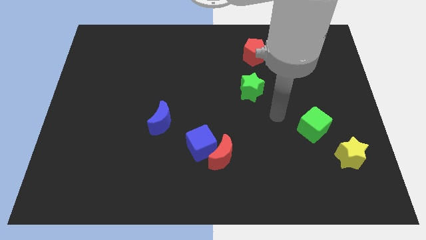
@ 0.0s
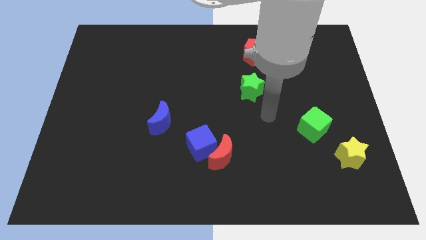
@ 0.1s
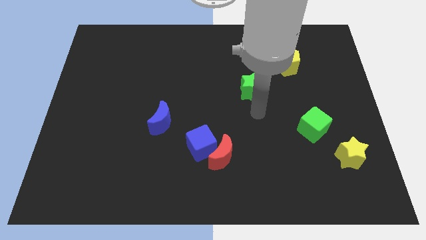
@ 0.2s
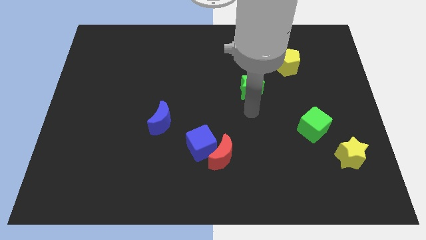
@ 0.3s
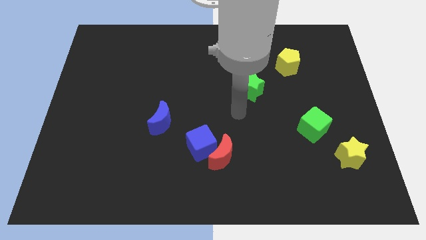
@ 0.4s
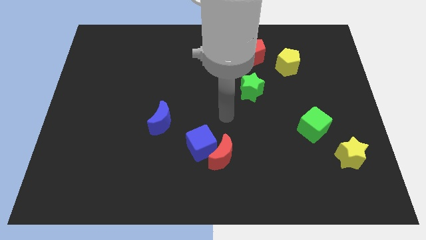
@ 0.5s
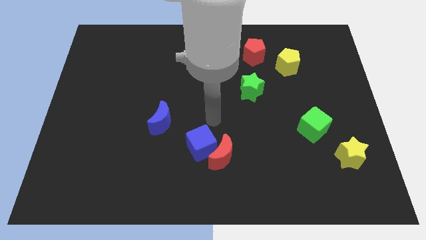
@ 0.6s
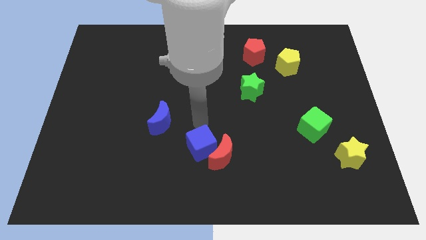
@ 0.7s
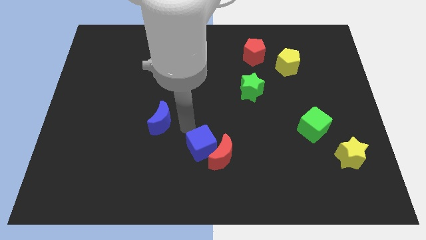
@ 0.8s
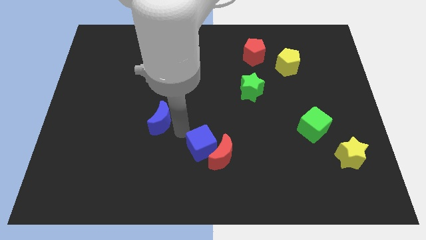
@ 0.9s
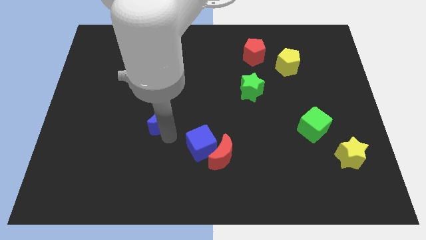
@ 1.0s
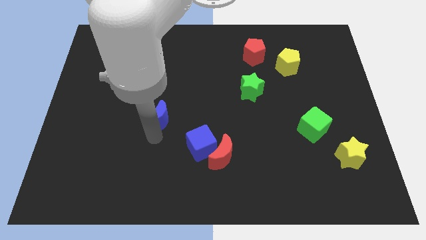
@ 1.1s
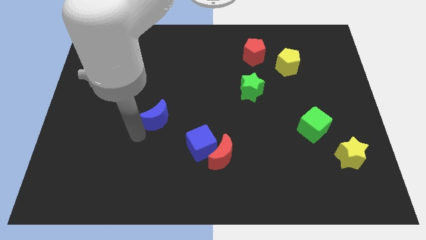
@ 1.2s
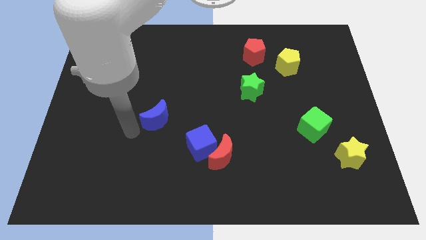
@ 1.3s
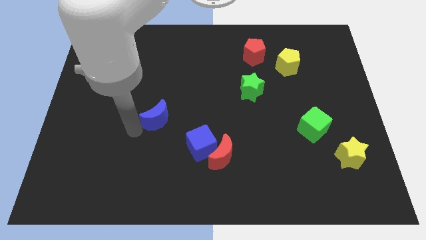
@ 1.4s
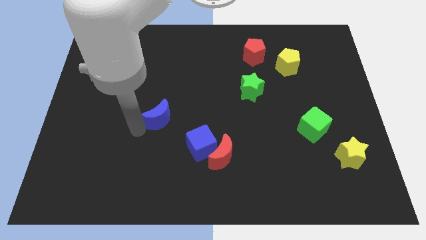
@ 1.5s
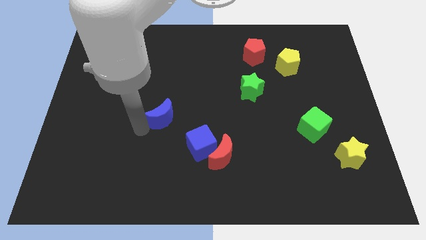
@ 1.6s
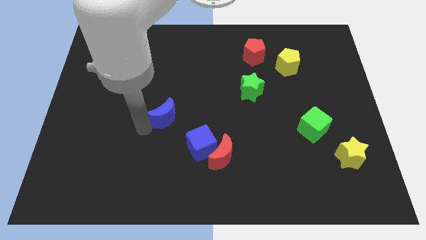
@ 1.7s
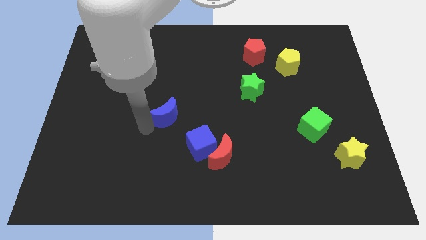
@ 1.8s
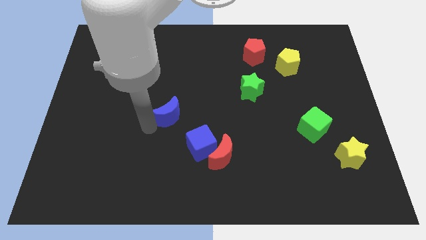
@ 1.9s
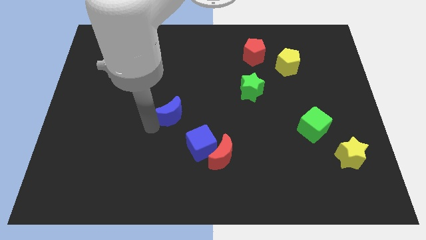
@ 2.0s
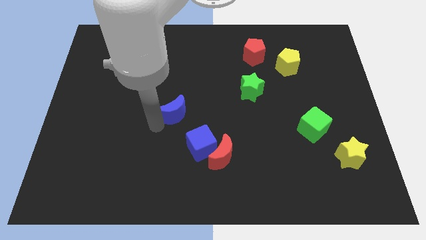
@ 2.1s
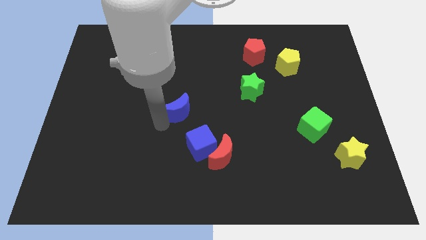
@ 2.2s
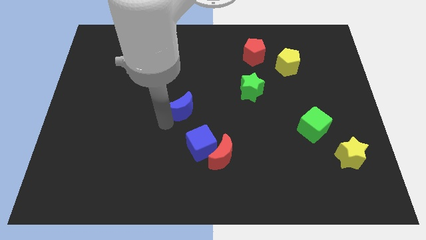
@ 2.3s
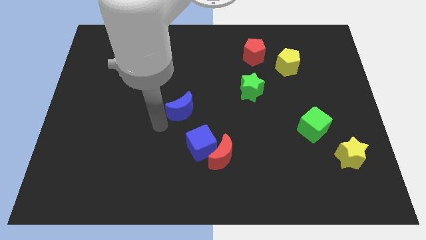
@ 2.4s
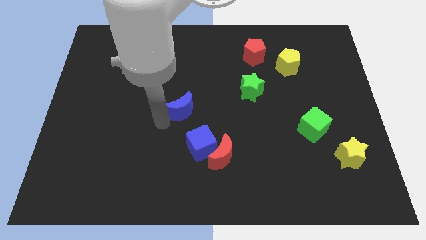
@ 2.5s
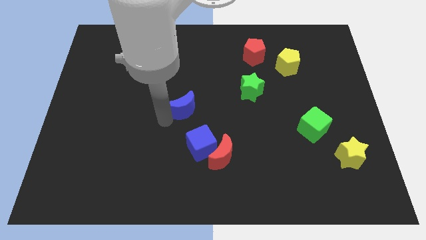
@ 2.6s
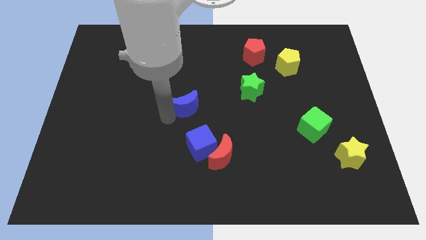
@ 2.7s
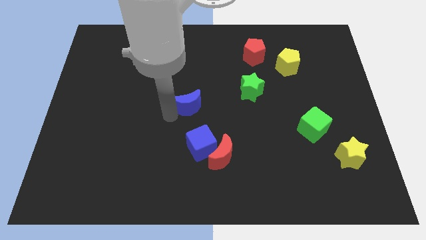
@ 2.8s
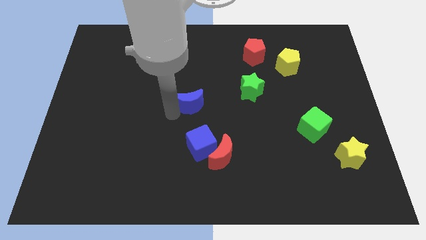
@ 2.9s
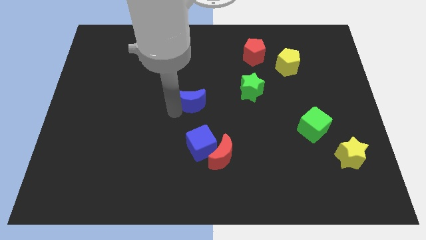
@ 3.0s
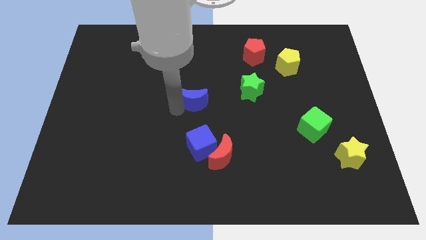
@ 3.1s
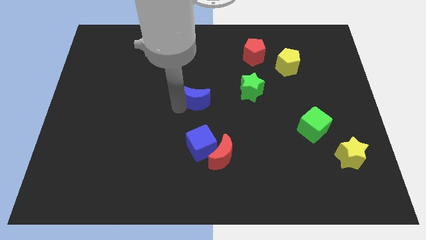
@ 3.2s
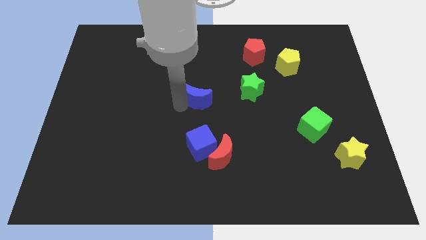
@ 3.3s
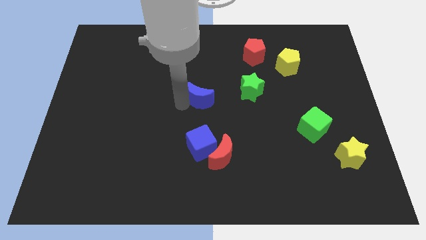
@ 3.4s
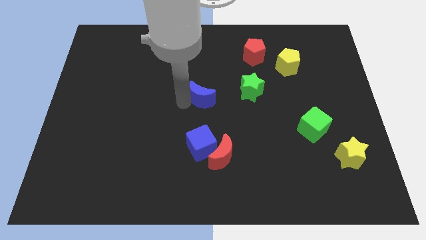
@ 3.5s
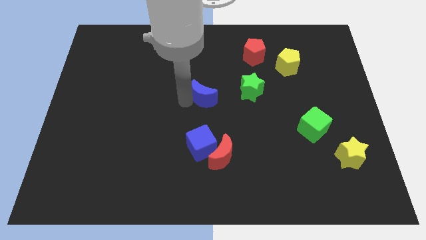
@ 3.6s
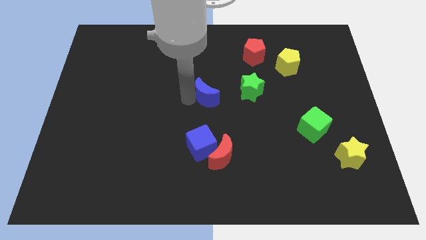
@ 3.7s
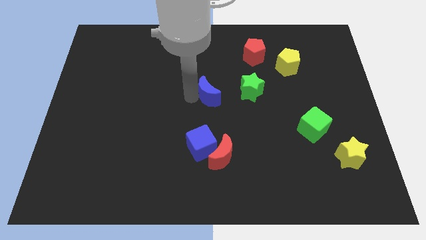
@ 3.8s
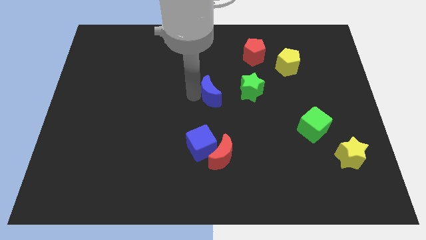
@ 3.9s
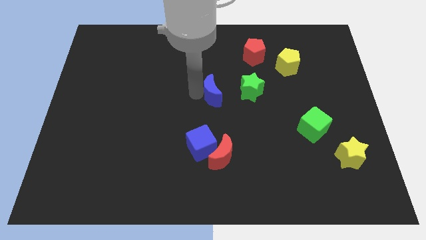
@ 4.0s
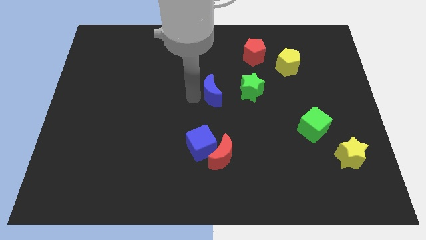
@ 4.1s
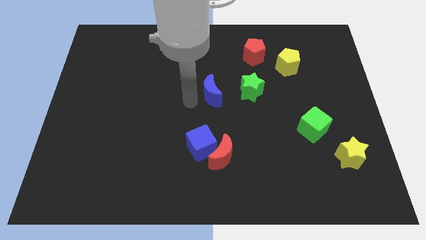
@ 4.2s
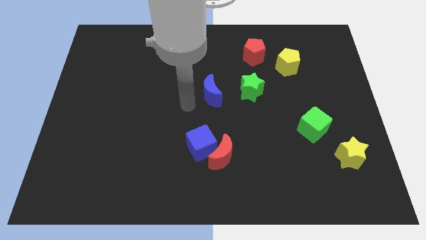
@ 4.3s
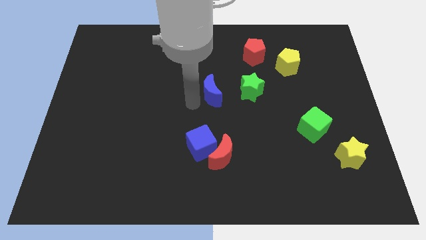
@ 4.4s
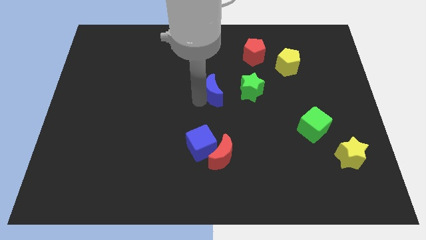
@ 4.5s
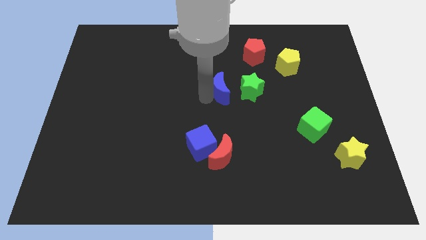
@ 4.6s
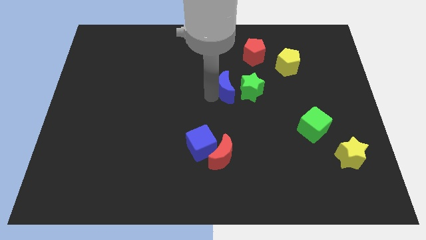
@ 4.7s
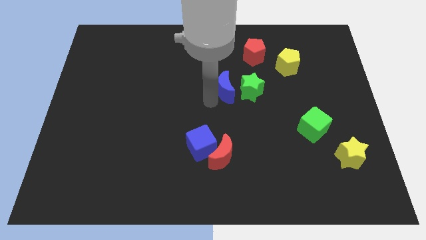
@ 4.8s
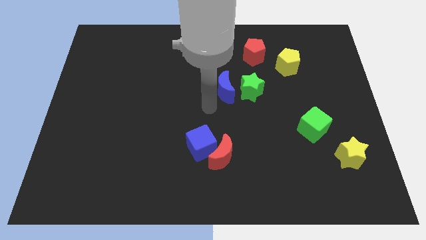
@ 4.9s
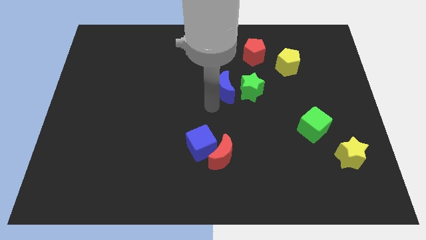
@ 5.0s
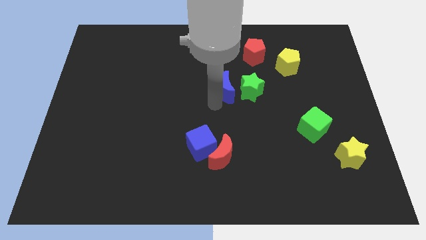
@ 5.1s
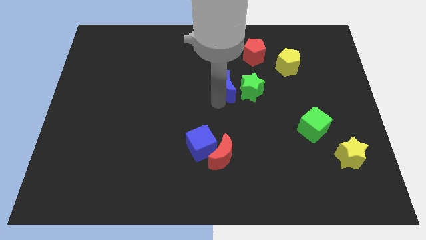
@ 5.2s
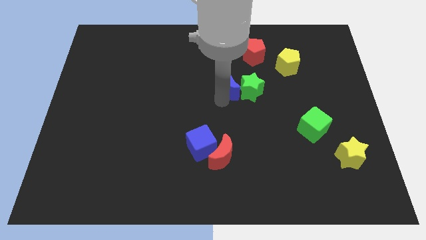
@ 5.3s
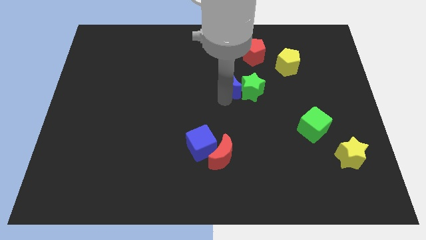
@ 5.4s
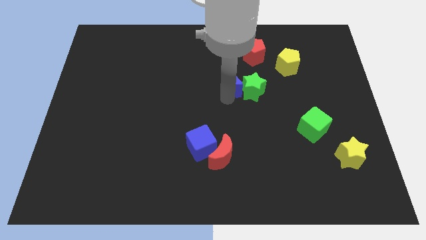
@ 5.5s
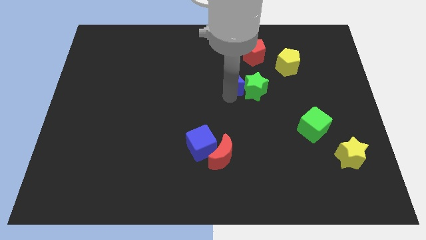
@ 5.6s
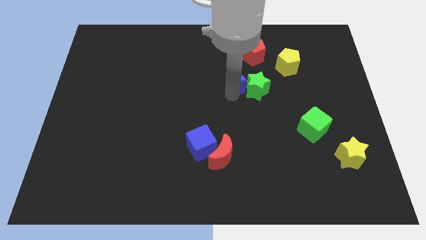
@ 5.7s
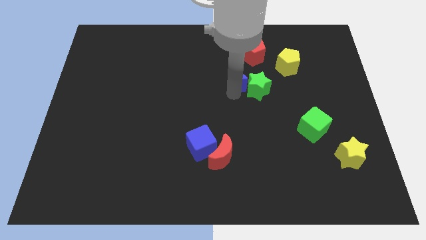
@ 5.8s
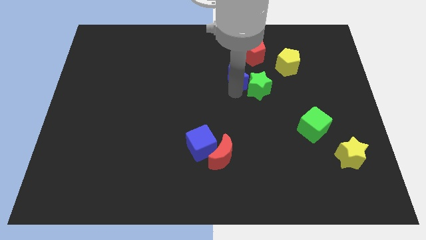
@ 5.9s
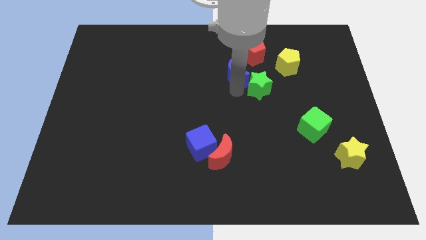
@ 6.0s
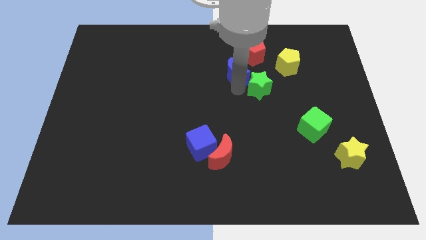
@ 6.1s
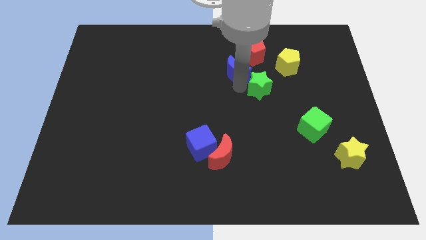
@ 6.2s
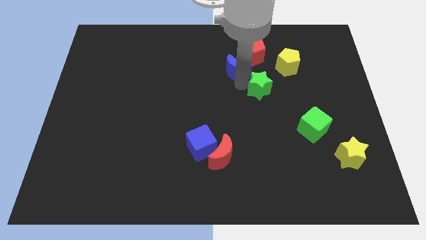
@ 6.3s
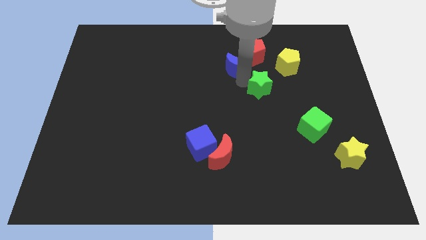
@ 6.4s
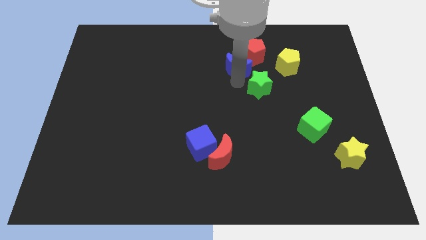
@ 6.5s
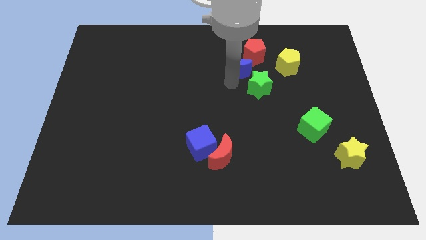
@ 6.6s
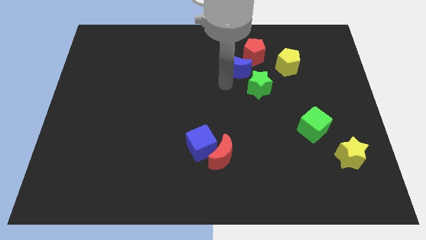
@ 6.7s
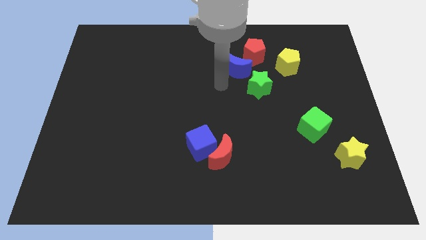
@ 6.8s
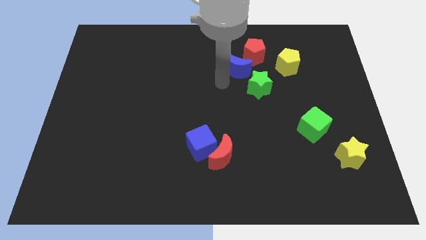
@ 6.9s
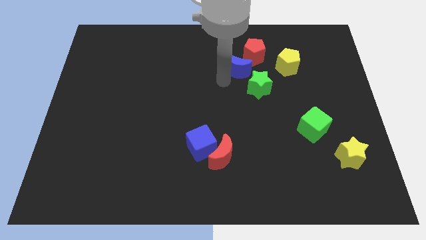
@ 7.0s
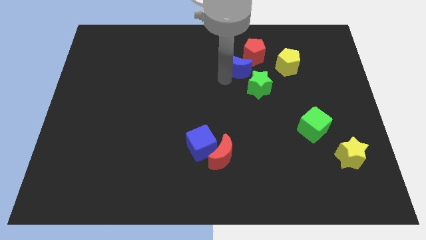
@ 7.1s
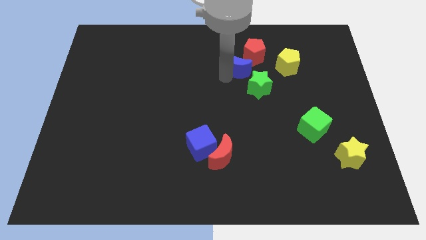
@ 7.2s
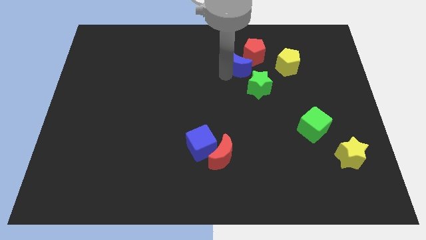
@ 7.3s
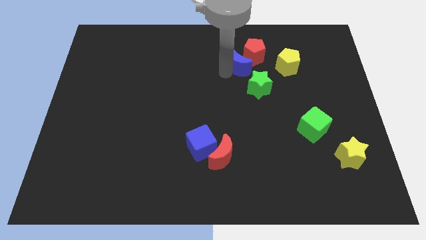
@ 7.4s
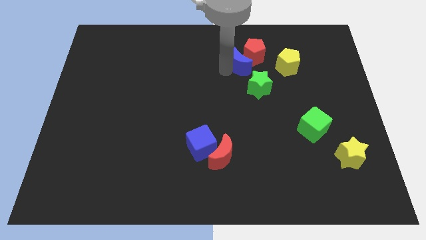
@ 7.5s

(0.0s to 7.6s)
move the blue moon close to the red pentagon

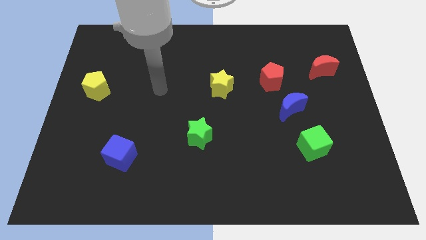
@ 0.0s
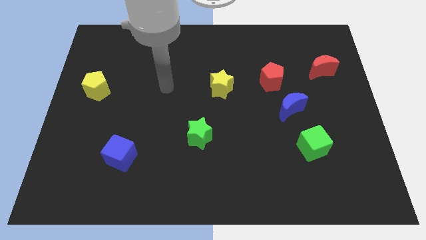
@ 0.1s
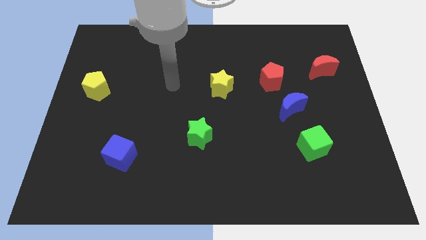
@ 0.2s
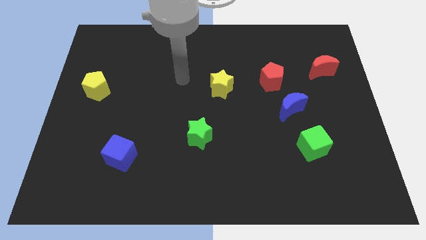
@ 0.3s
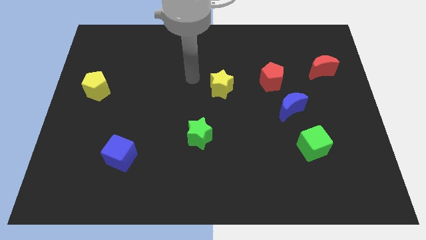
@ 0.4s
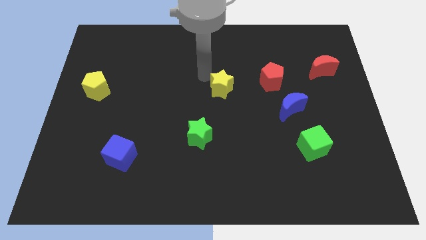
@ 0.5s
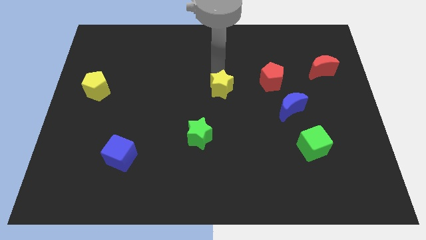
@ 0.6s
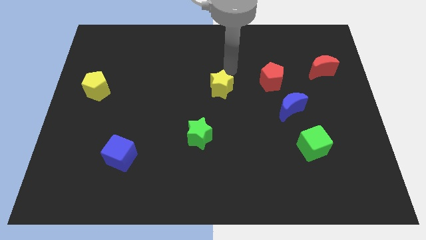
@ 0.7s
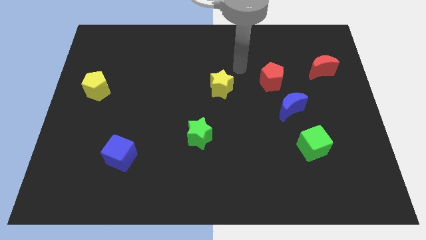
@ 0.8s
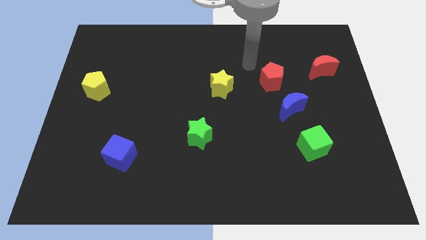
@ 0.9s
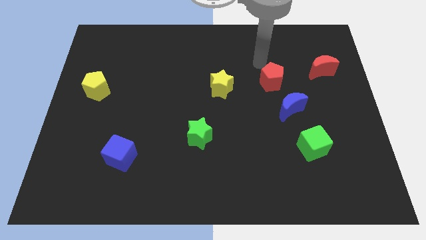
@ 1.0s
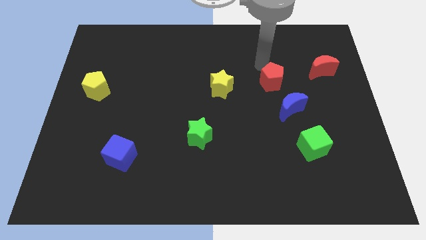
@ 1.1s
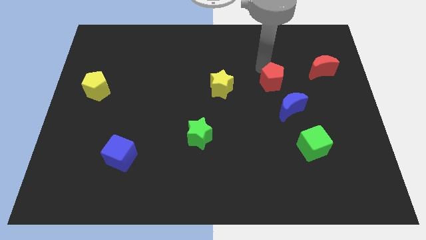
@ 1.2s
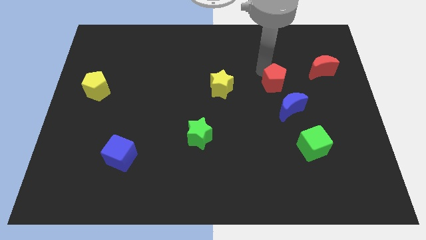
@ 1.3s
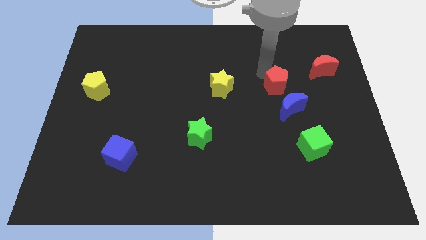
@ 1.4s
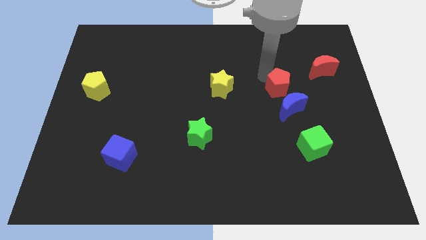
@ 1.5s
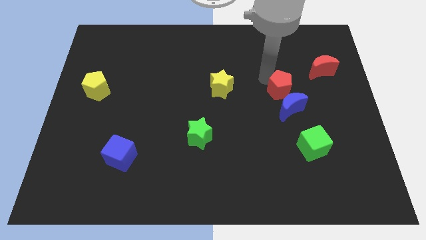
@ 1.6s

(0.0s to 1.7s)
push the red pentagon next to the blue moon
